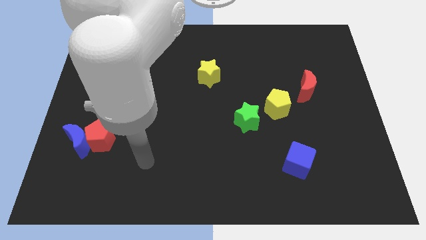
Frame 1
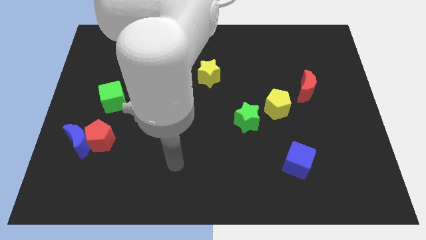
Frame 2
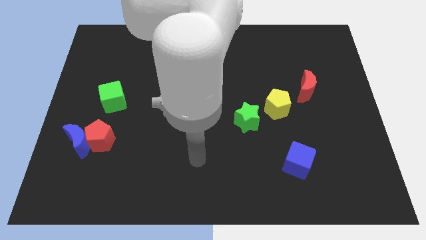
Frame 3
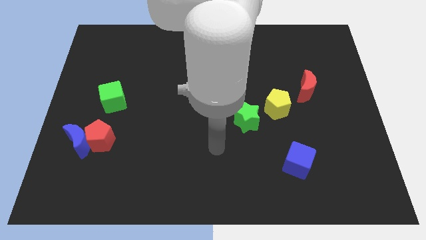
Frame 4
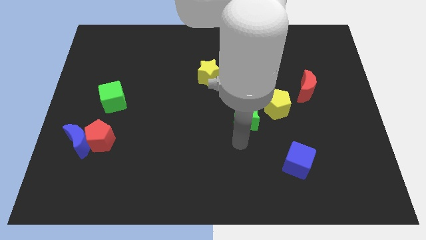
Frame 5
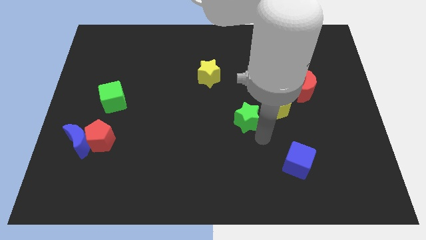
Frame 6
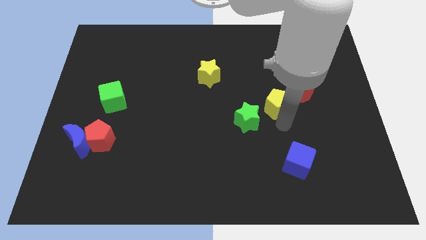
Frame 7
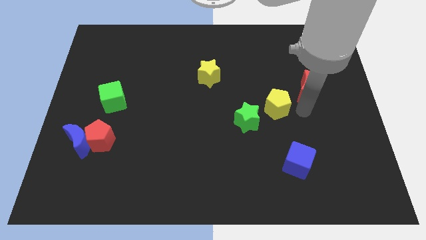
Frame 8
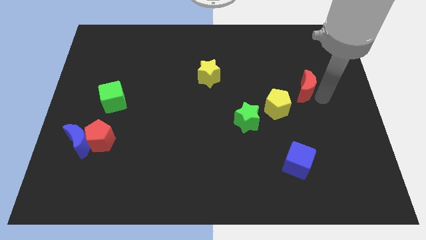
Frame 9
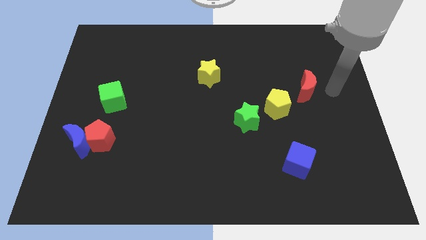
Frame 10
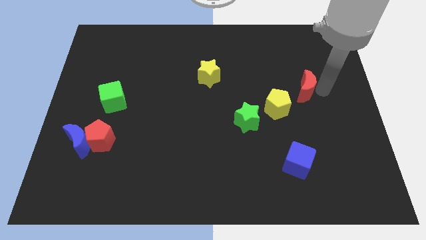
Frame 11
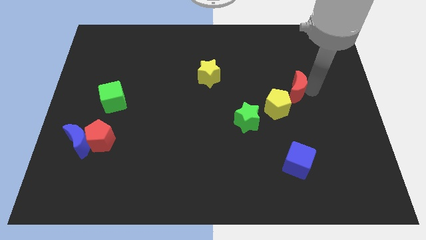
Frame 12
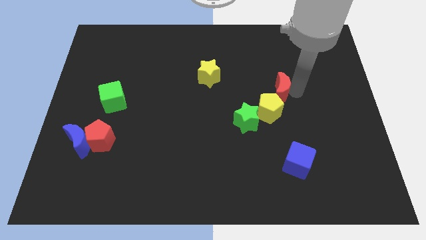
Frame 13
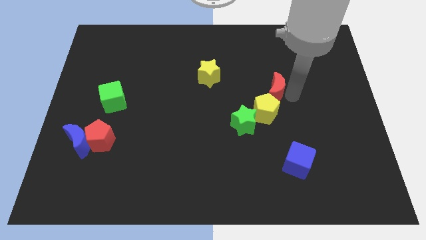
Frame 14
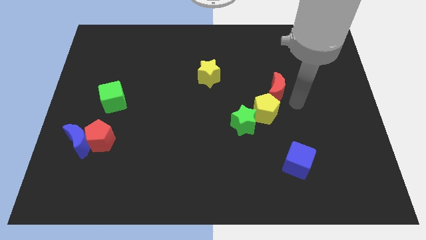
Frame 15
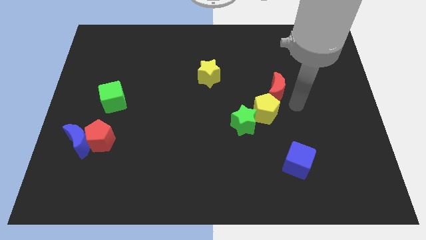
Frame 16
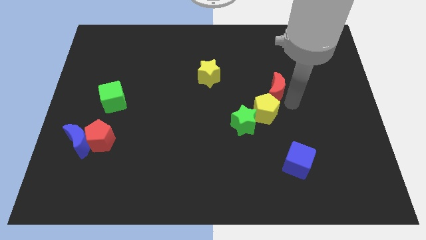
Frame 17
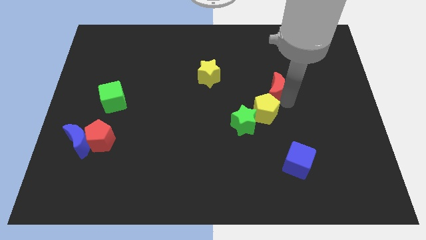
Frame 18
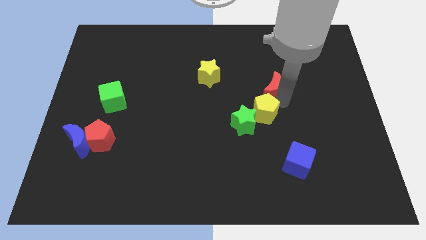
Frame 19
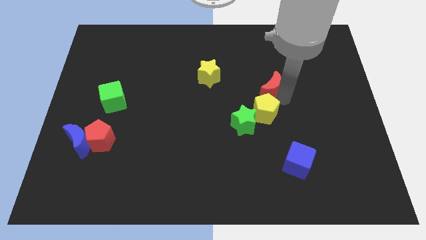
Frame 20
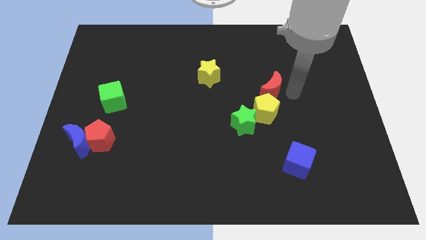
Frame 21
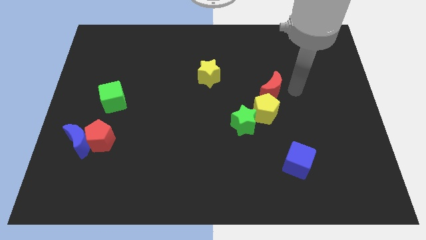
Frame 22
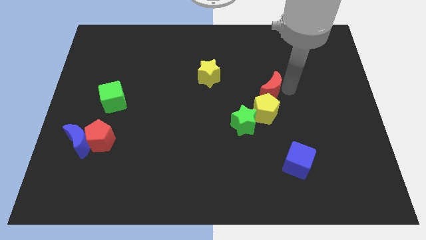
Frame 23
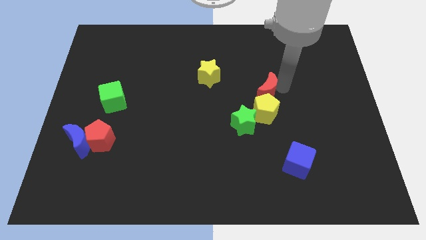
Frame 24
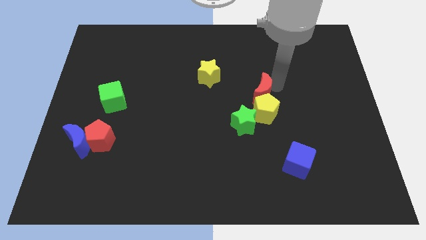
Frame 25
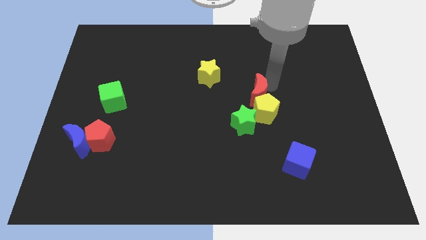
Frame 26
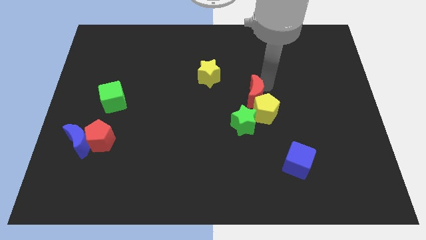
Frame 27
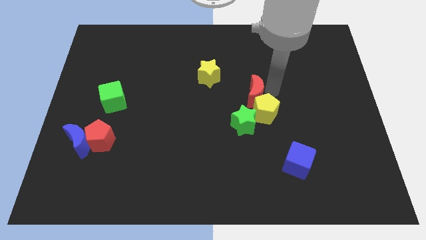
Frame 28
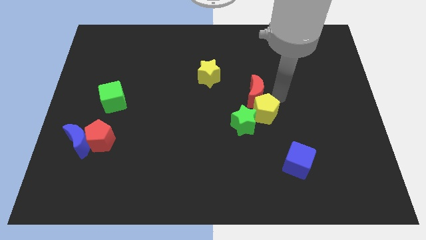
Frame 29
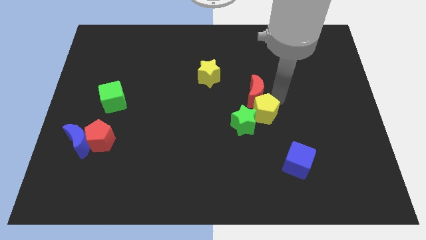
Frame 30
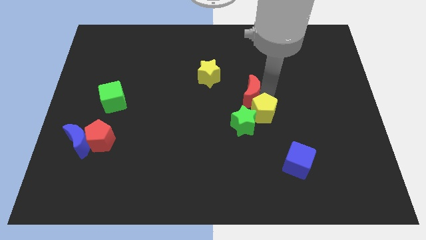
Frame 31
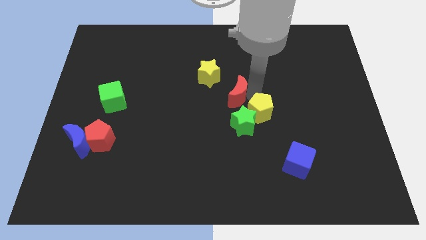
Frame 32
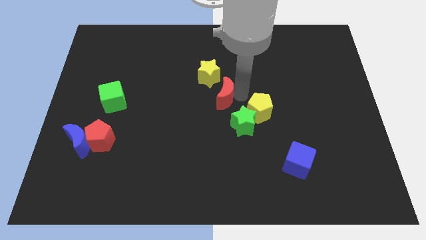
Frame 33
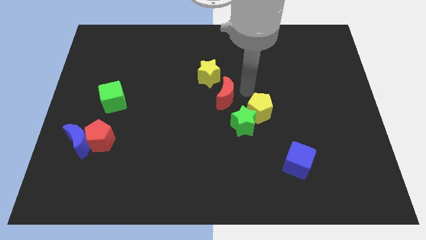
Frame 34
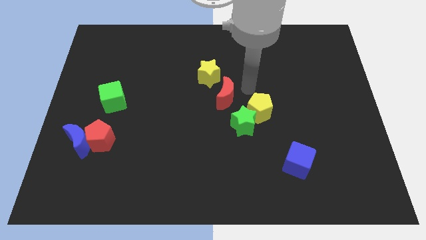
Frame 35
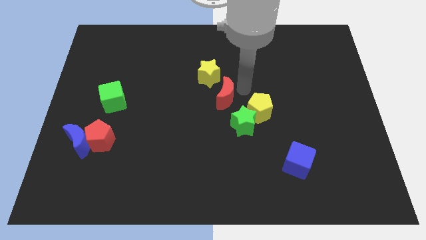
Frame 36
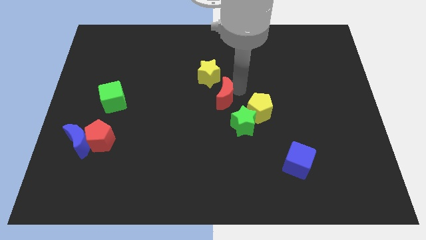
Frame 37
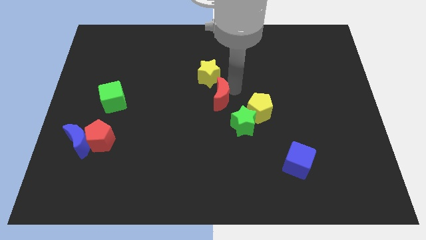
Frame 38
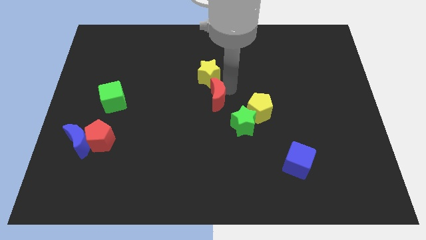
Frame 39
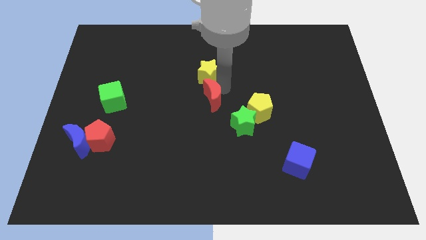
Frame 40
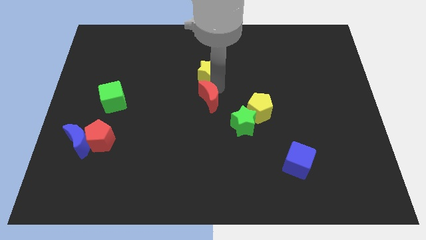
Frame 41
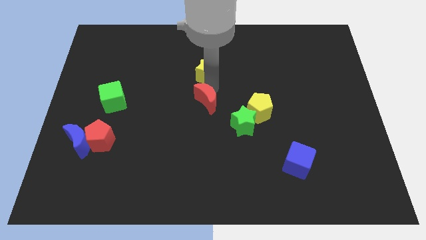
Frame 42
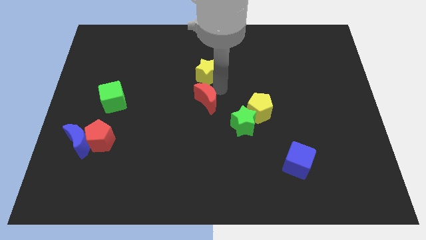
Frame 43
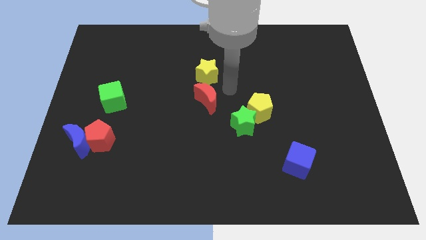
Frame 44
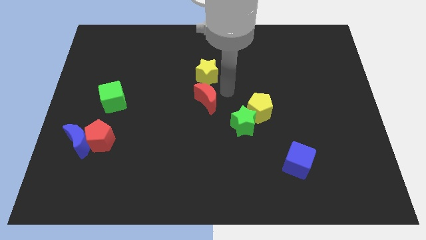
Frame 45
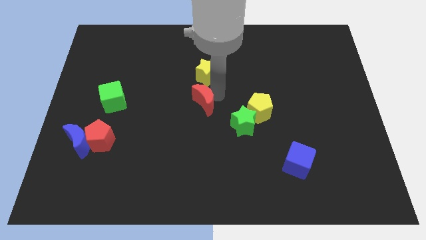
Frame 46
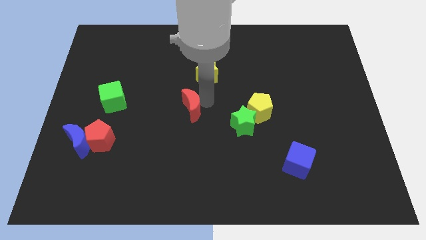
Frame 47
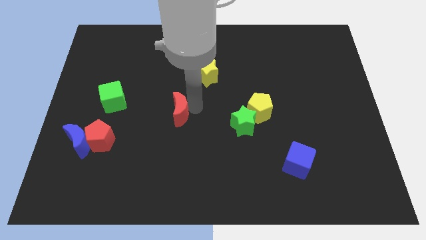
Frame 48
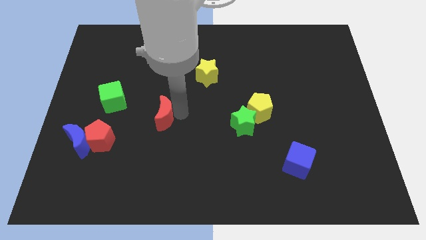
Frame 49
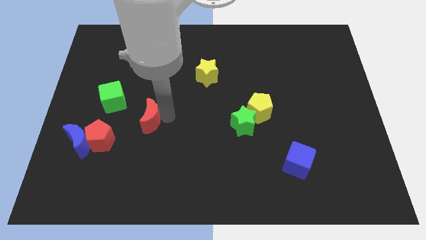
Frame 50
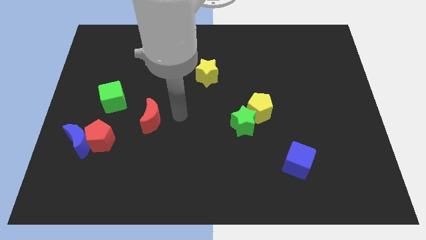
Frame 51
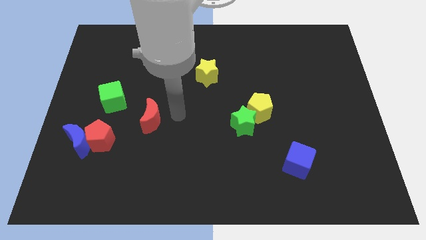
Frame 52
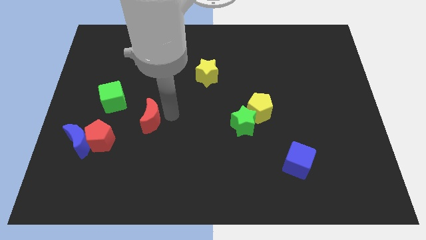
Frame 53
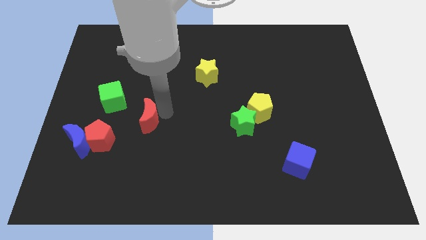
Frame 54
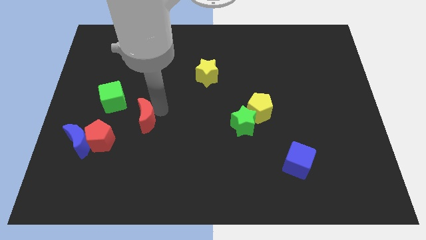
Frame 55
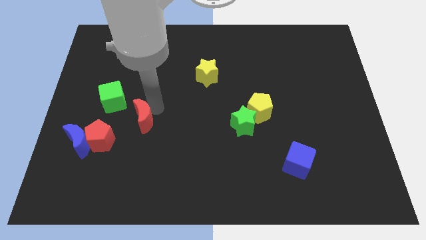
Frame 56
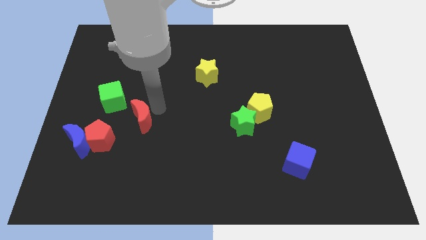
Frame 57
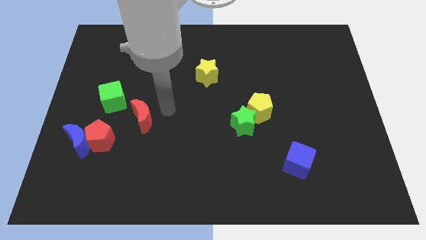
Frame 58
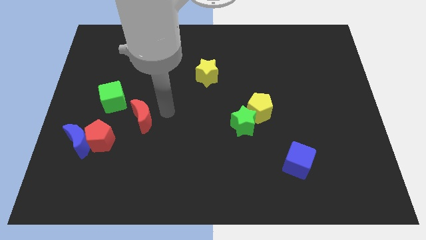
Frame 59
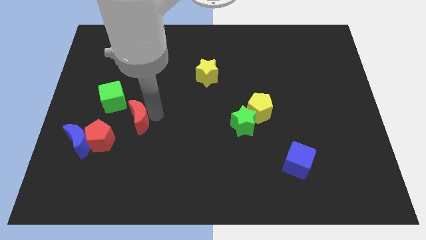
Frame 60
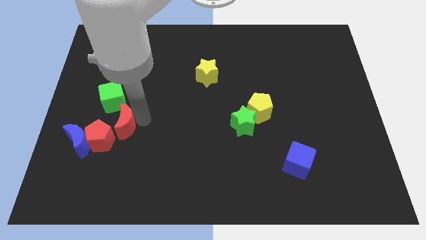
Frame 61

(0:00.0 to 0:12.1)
move the red moon diagonally up and to the right of the blue moon

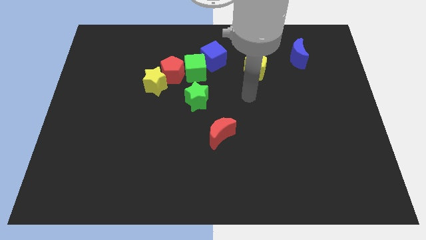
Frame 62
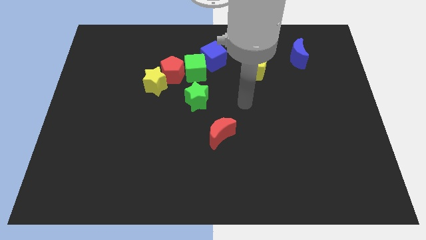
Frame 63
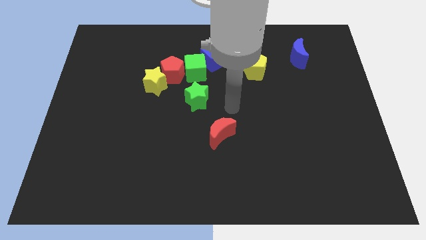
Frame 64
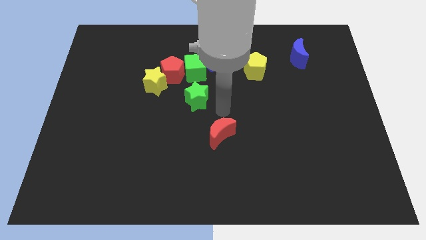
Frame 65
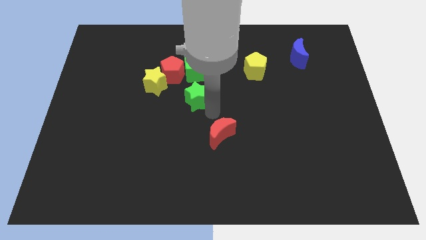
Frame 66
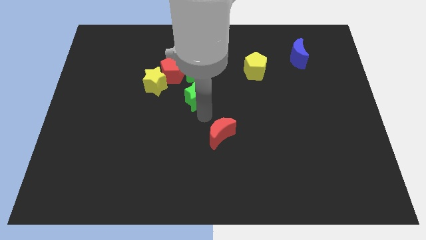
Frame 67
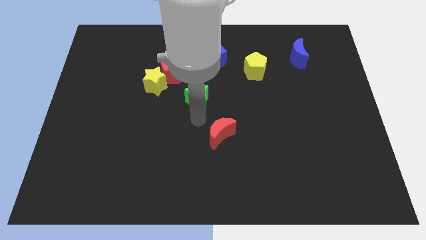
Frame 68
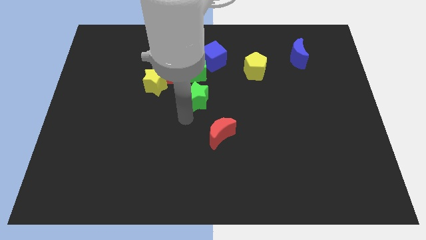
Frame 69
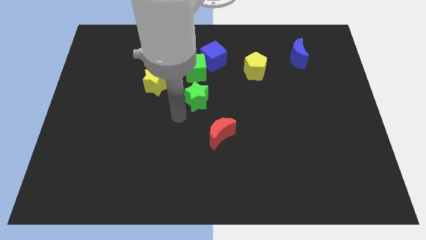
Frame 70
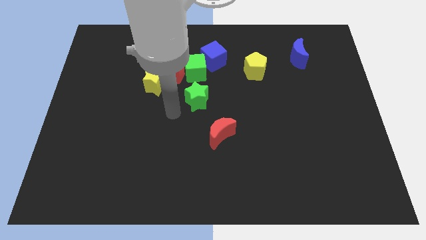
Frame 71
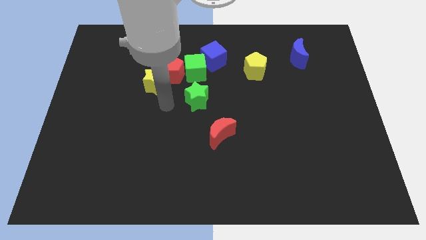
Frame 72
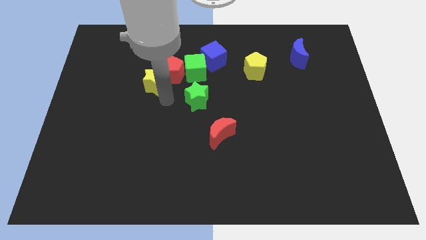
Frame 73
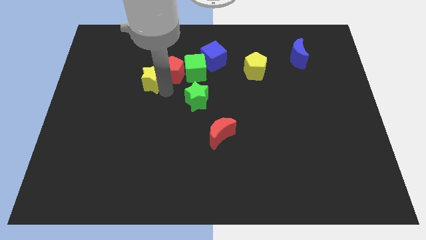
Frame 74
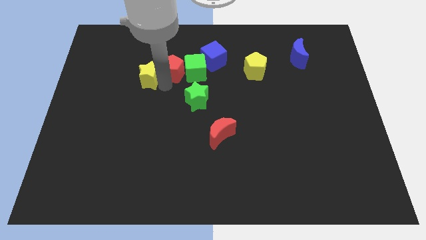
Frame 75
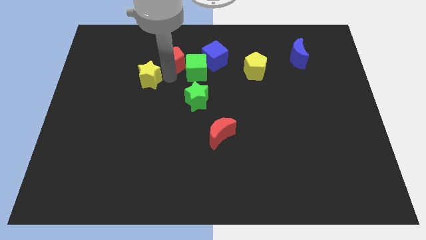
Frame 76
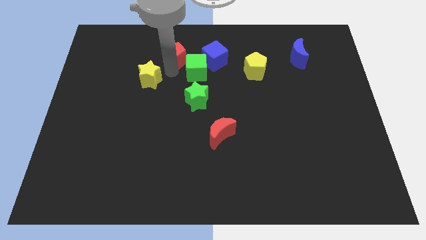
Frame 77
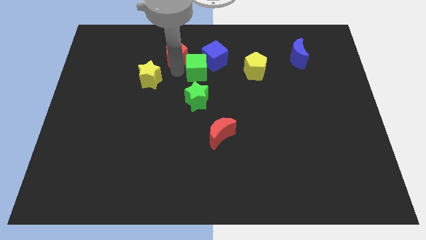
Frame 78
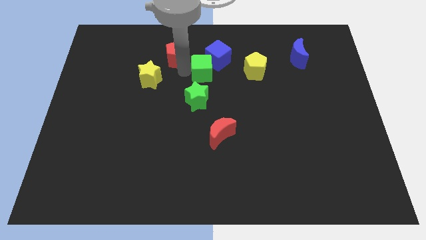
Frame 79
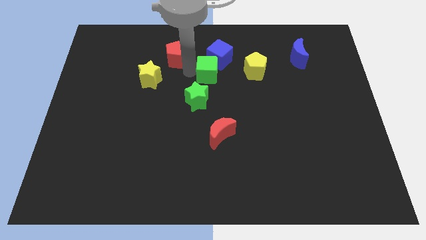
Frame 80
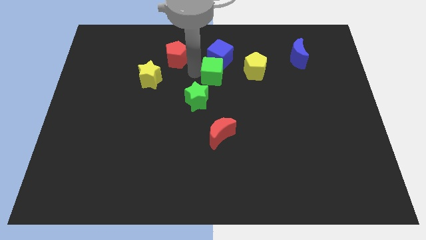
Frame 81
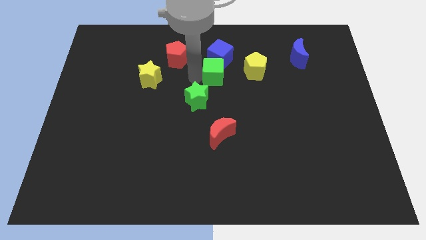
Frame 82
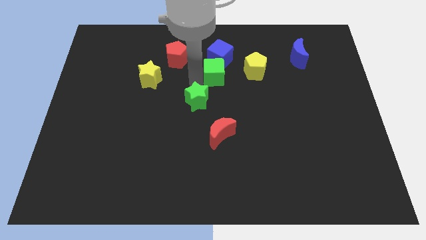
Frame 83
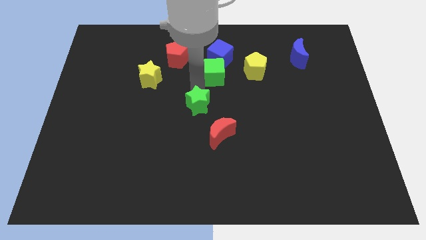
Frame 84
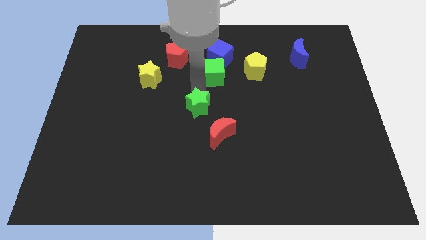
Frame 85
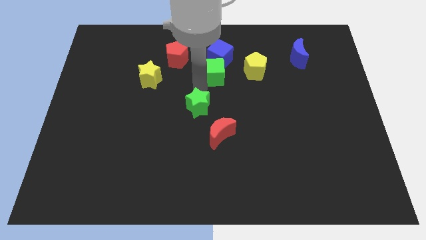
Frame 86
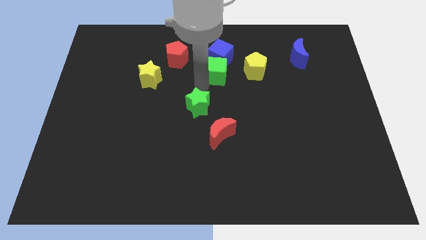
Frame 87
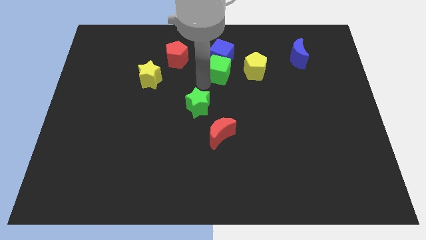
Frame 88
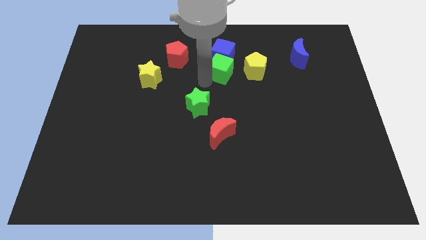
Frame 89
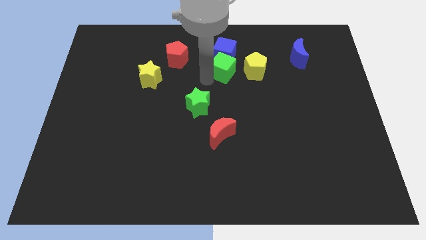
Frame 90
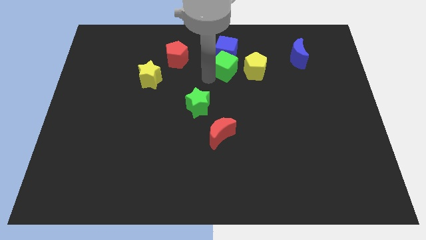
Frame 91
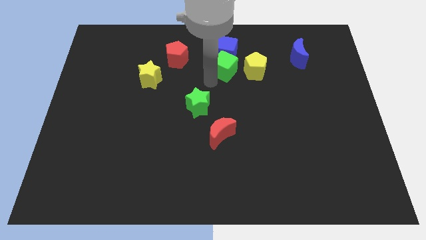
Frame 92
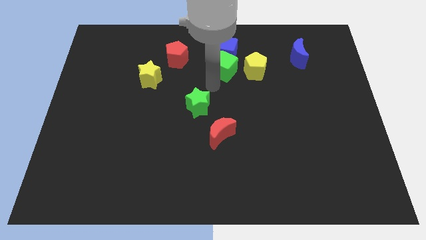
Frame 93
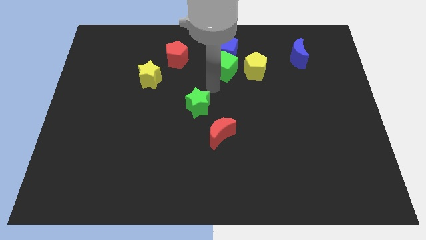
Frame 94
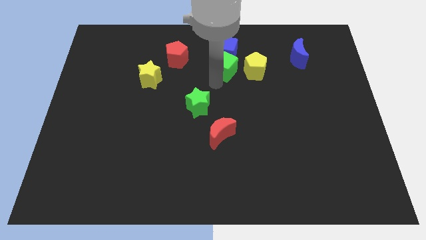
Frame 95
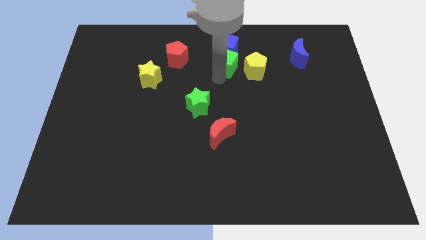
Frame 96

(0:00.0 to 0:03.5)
put the green cube to the top left of the yellow pentagon
